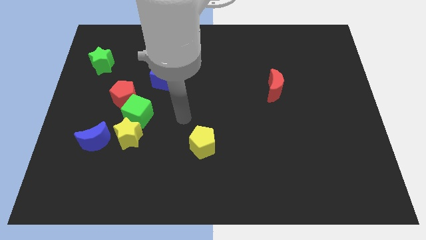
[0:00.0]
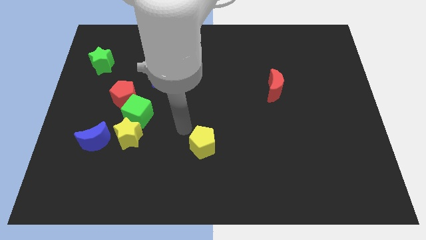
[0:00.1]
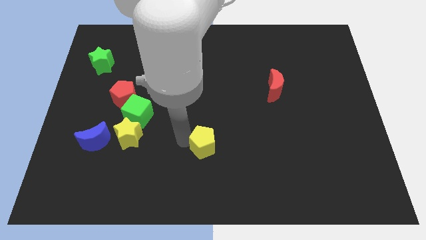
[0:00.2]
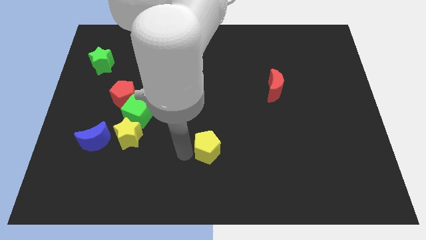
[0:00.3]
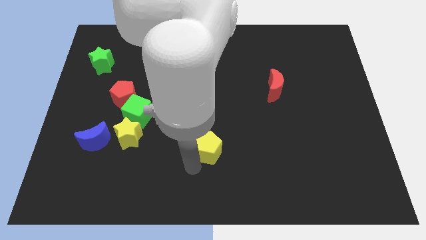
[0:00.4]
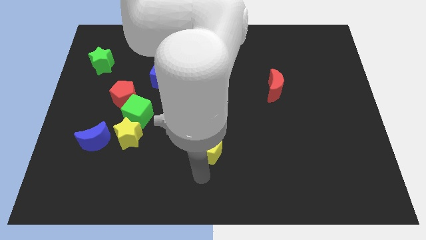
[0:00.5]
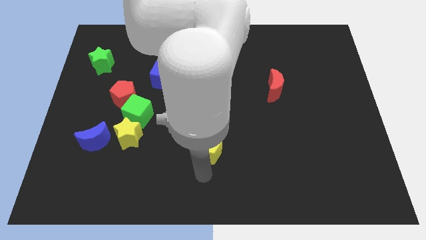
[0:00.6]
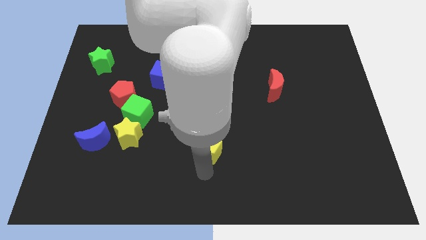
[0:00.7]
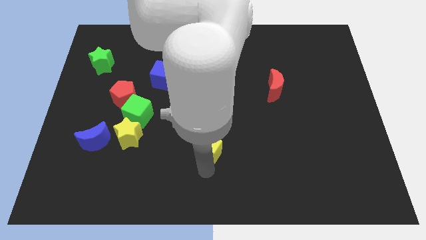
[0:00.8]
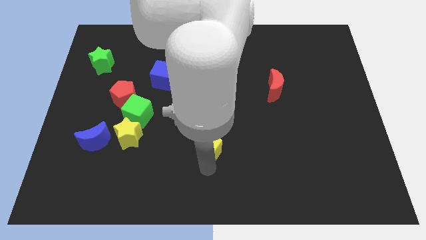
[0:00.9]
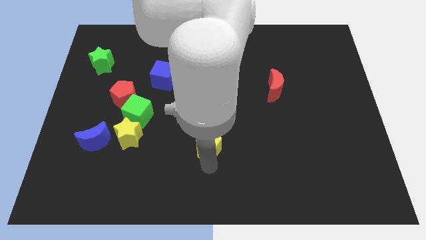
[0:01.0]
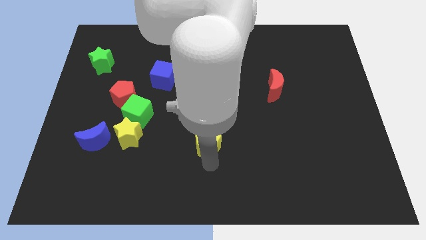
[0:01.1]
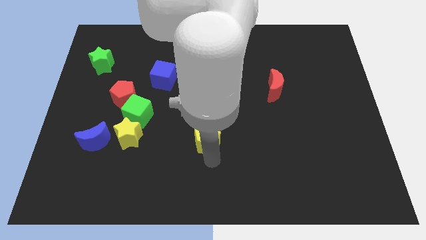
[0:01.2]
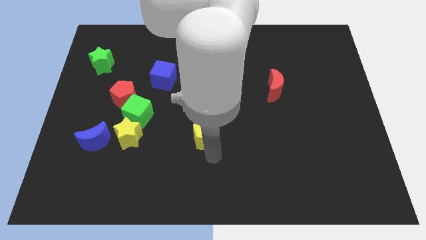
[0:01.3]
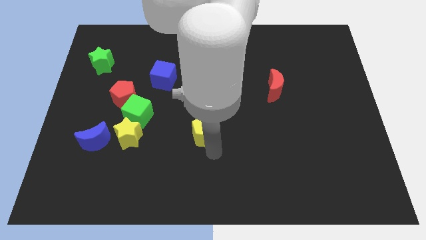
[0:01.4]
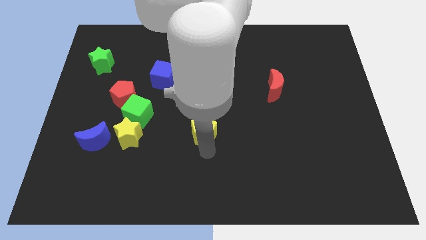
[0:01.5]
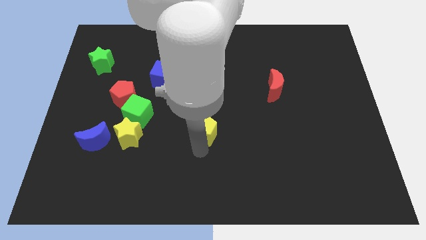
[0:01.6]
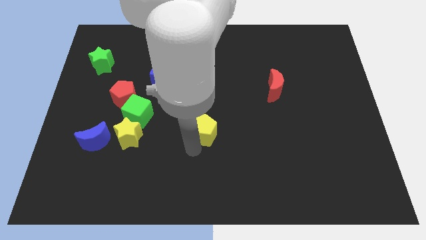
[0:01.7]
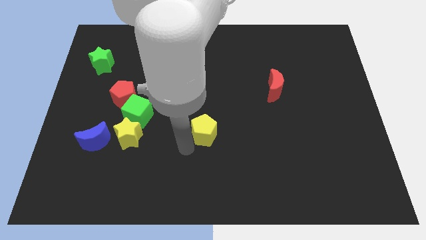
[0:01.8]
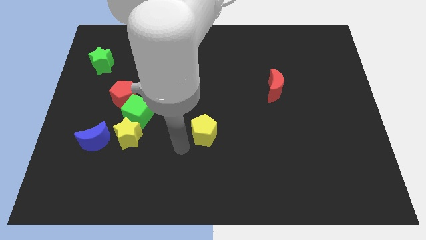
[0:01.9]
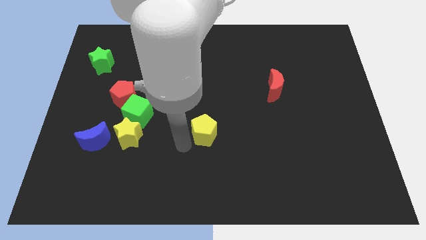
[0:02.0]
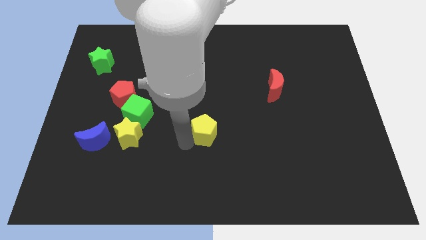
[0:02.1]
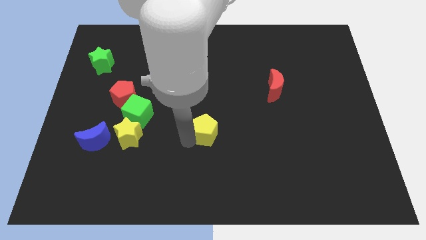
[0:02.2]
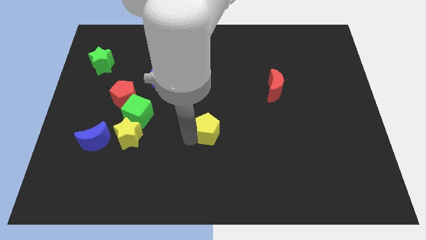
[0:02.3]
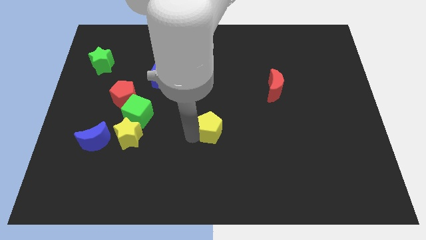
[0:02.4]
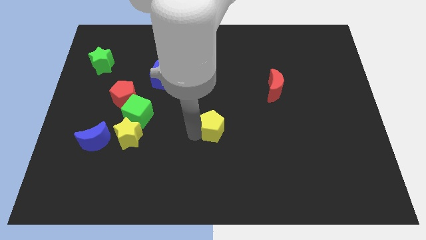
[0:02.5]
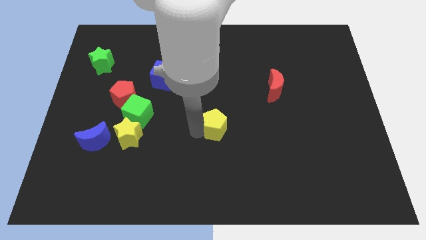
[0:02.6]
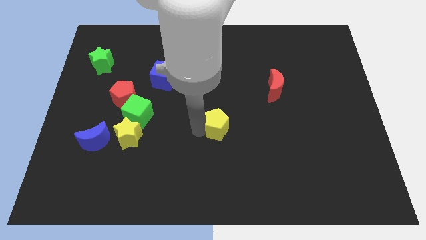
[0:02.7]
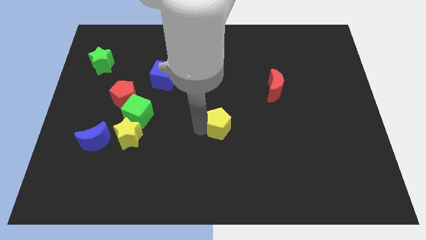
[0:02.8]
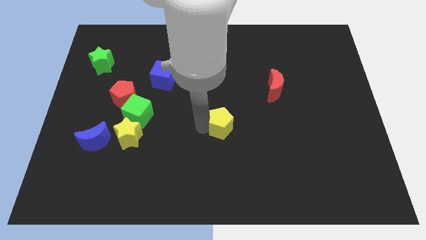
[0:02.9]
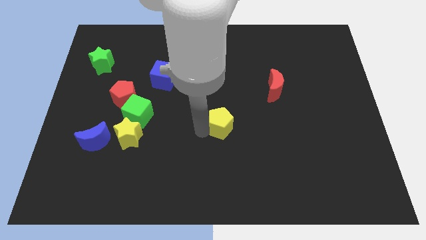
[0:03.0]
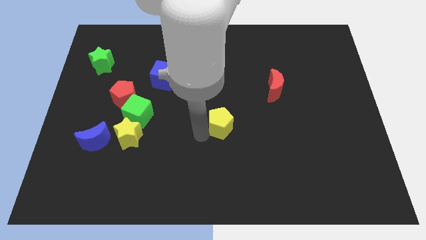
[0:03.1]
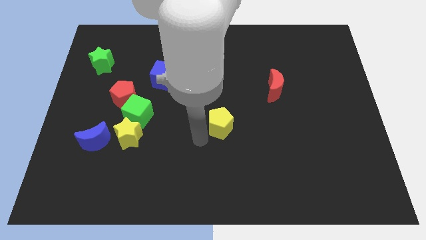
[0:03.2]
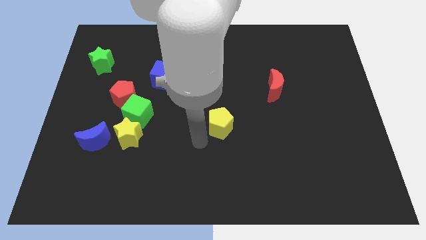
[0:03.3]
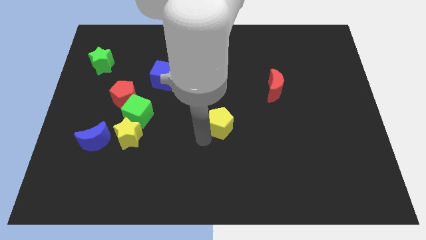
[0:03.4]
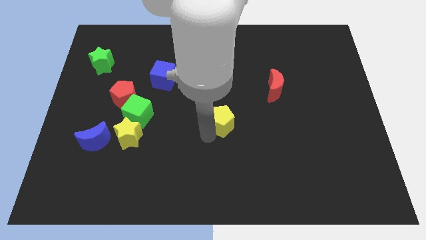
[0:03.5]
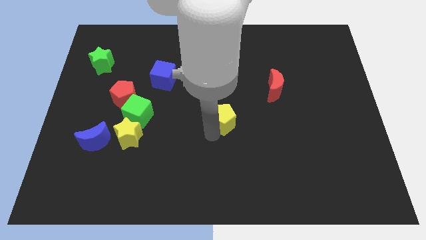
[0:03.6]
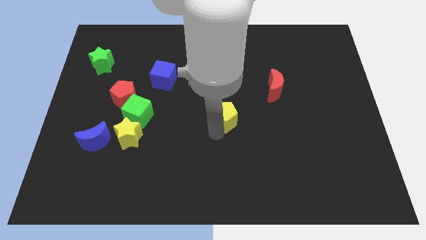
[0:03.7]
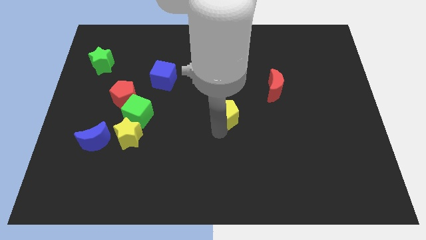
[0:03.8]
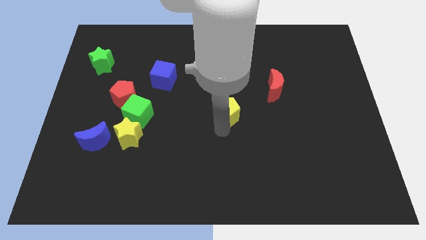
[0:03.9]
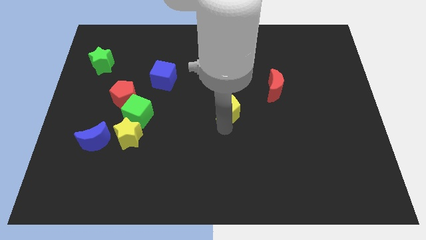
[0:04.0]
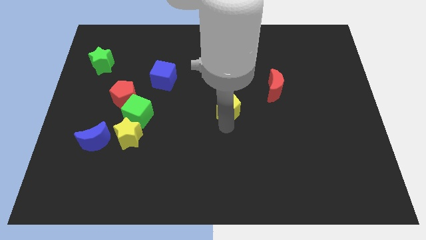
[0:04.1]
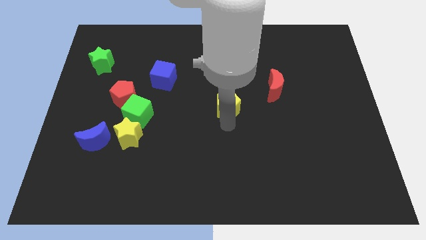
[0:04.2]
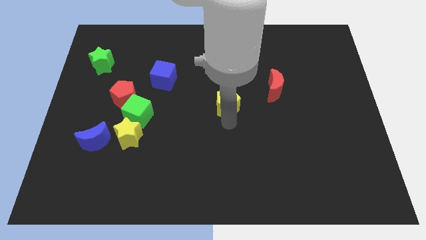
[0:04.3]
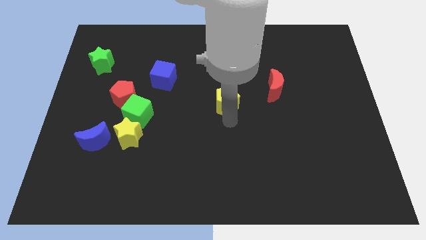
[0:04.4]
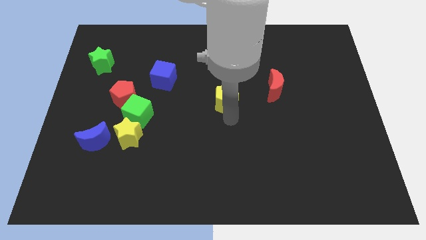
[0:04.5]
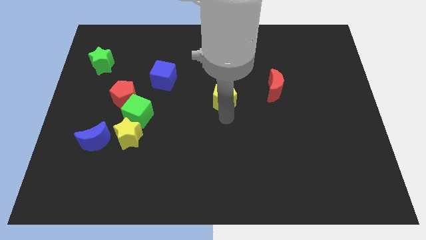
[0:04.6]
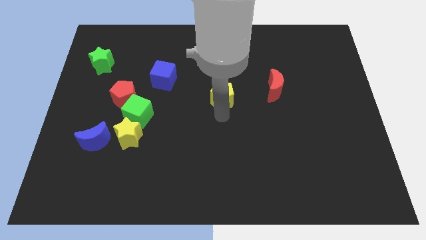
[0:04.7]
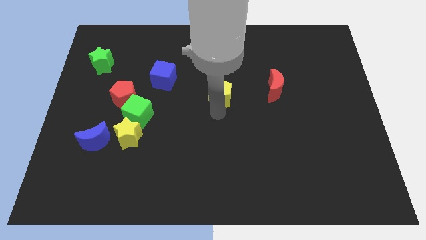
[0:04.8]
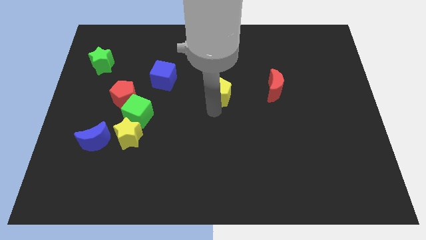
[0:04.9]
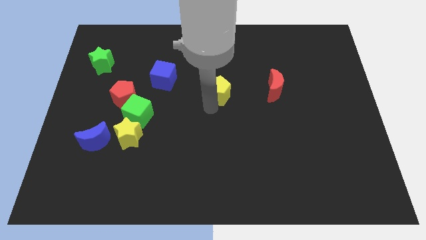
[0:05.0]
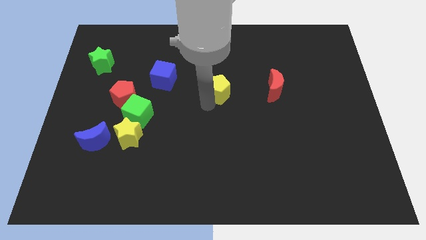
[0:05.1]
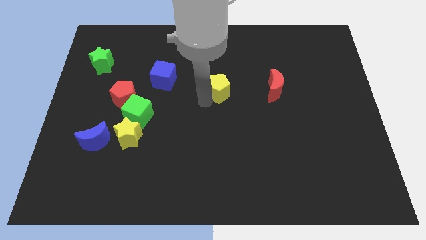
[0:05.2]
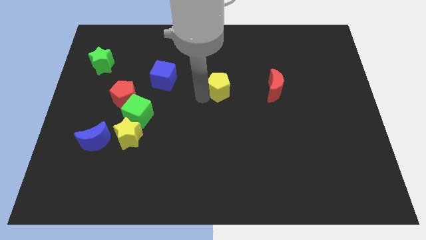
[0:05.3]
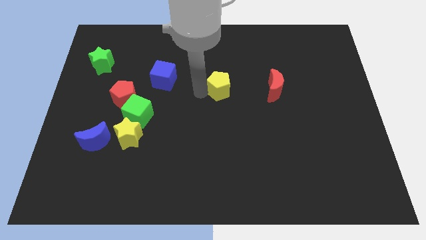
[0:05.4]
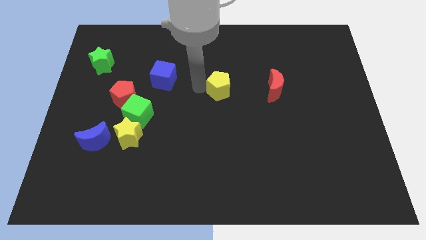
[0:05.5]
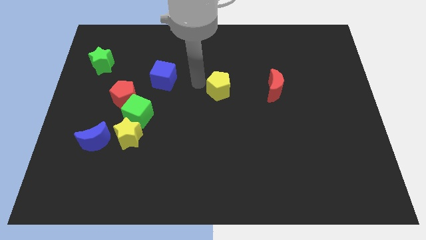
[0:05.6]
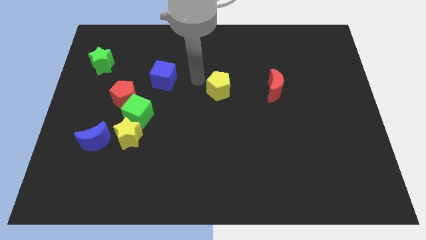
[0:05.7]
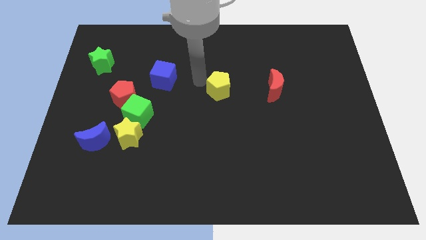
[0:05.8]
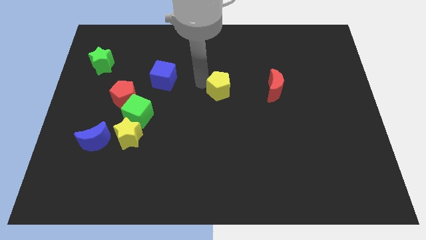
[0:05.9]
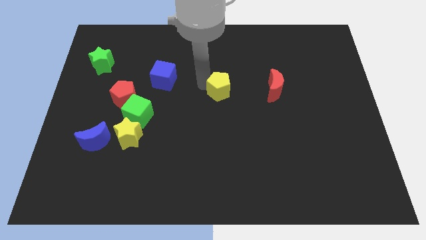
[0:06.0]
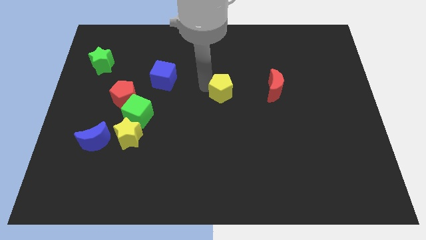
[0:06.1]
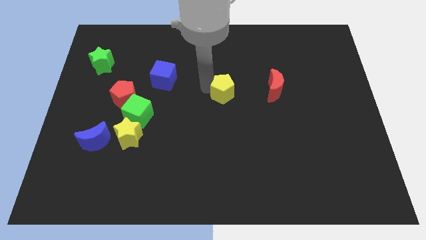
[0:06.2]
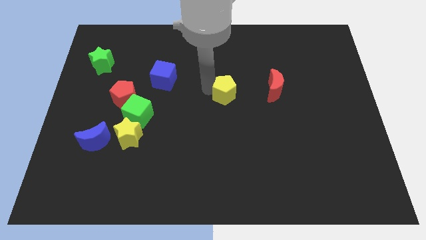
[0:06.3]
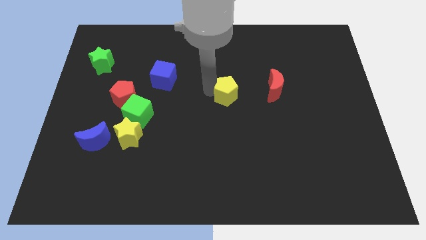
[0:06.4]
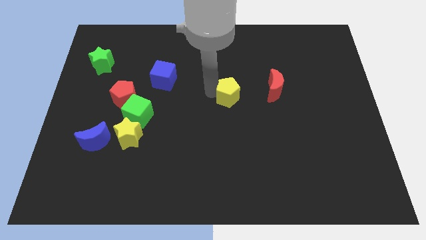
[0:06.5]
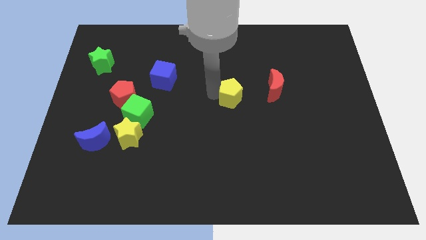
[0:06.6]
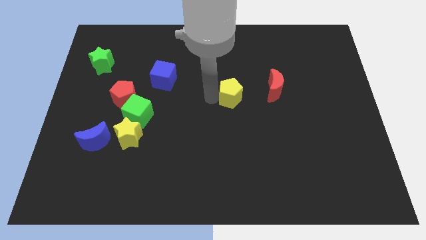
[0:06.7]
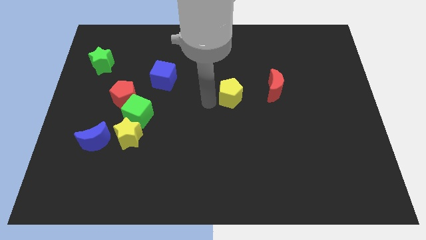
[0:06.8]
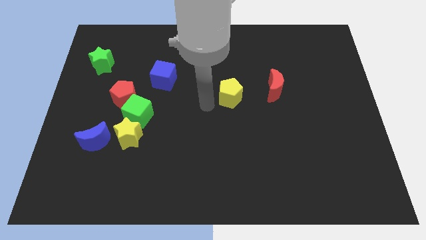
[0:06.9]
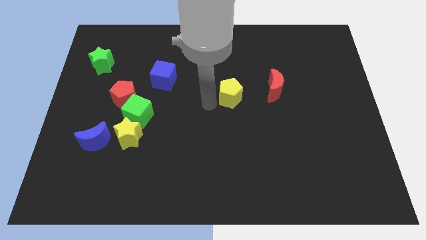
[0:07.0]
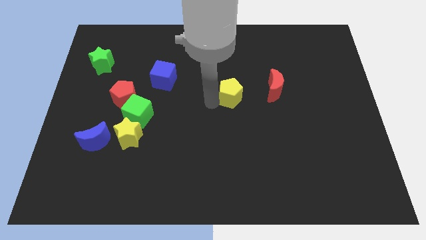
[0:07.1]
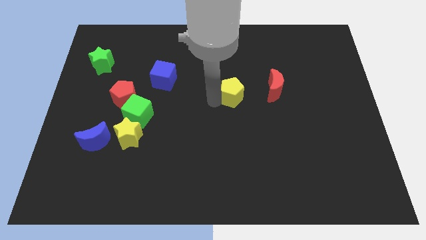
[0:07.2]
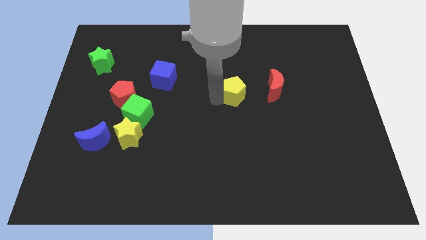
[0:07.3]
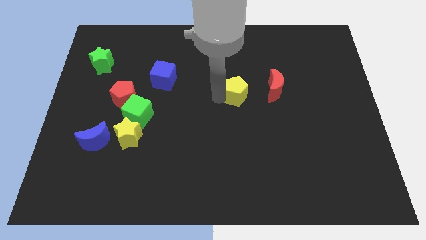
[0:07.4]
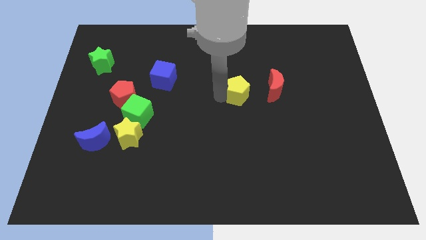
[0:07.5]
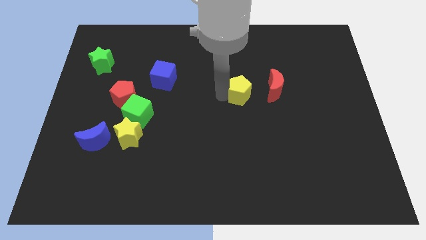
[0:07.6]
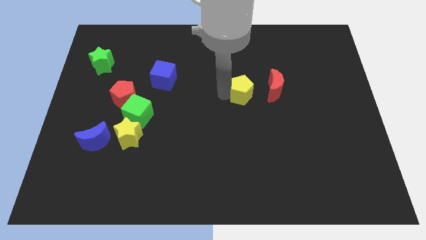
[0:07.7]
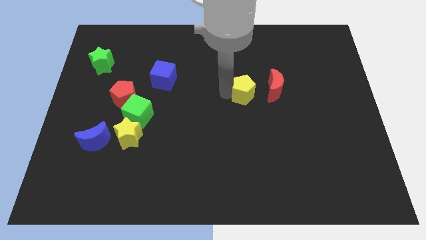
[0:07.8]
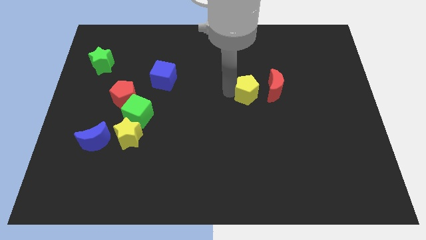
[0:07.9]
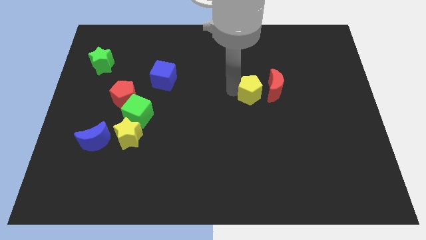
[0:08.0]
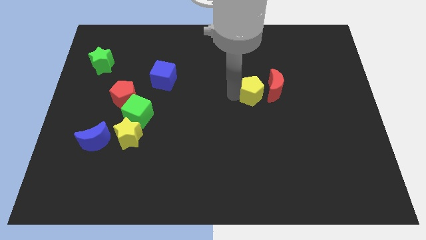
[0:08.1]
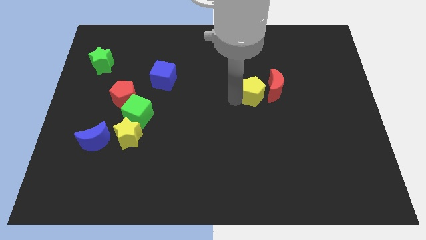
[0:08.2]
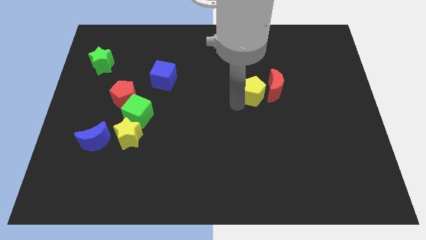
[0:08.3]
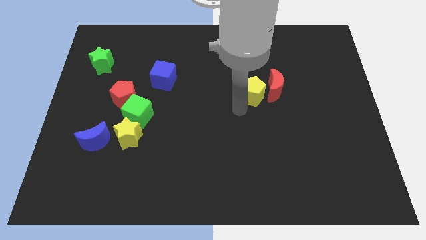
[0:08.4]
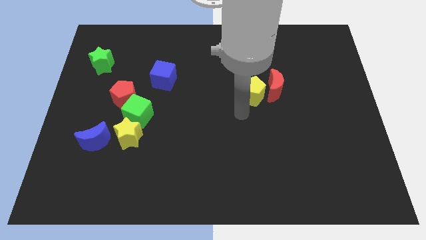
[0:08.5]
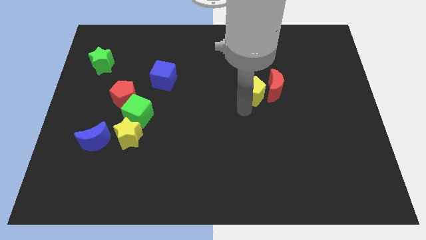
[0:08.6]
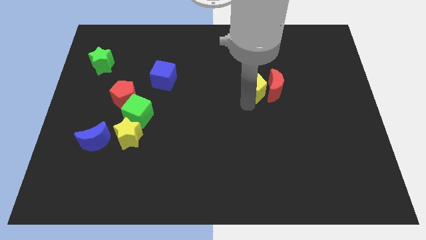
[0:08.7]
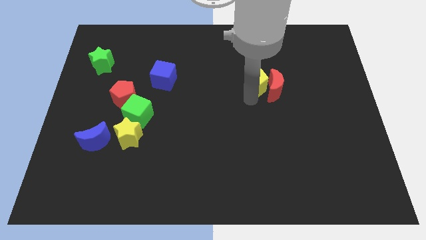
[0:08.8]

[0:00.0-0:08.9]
move the yellow pentagon up and right diagonally
